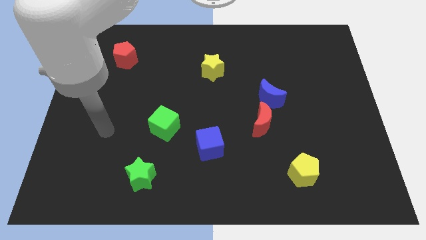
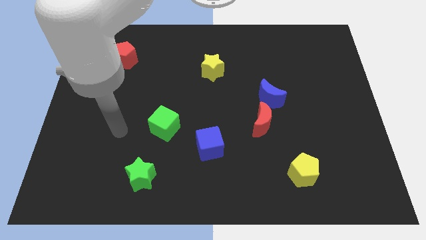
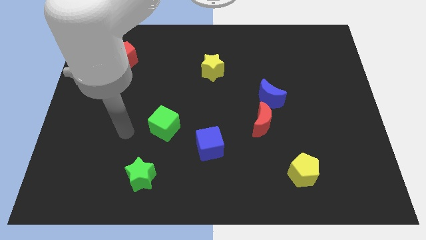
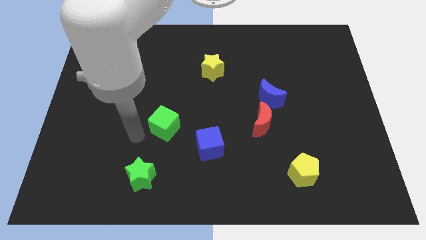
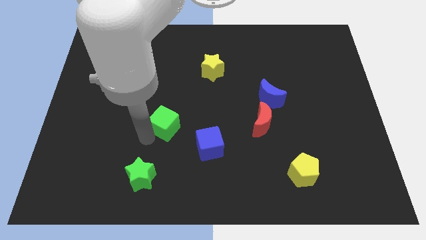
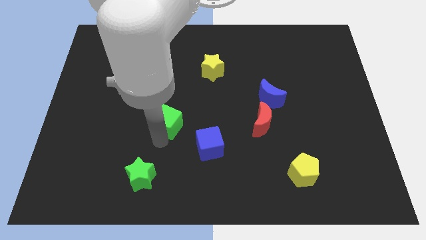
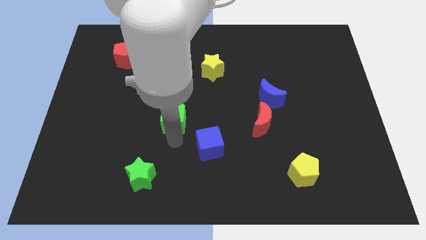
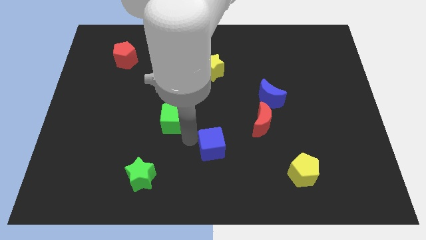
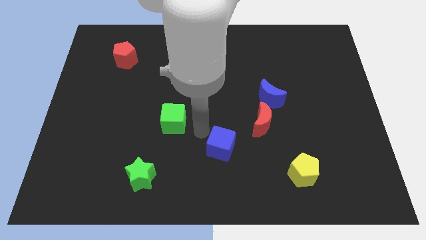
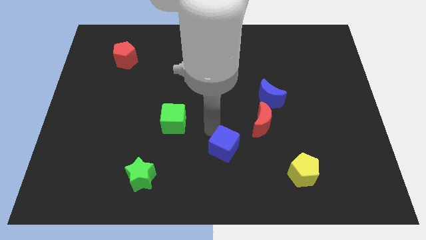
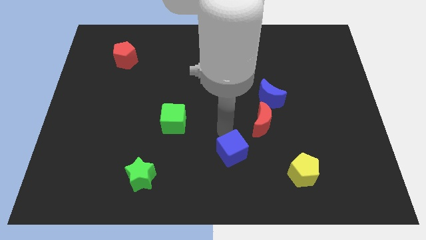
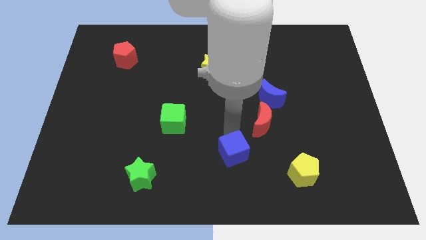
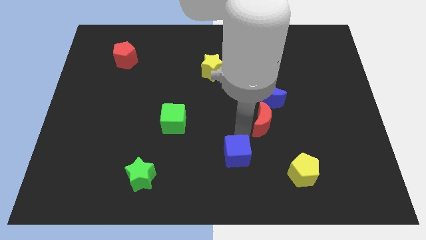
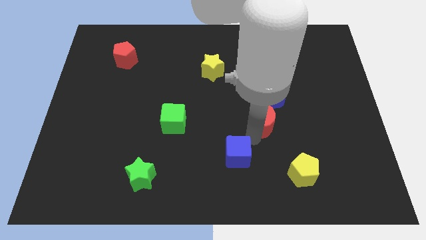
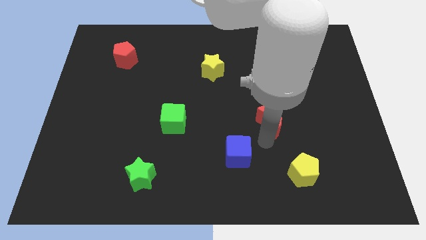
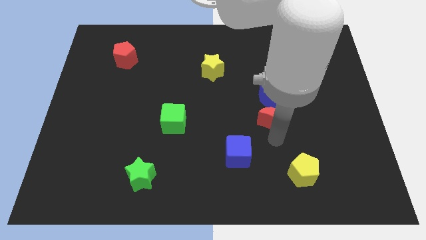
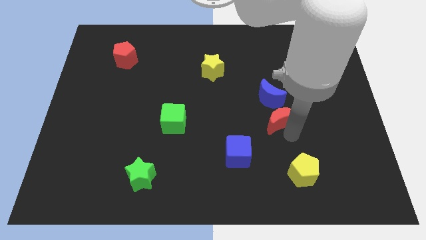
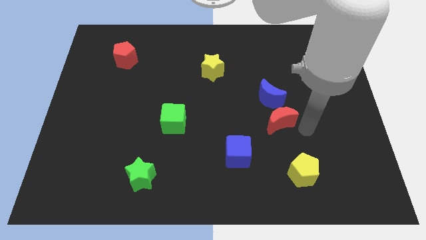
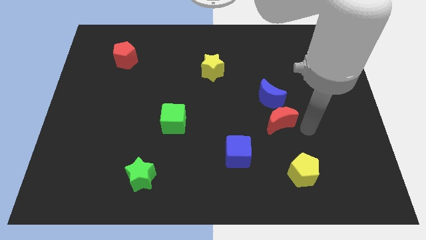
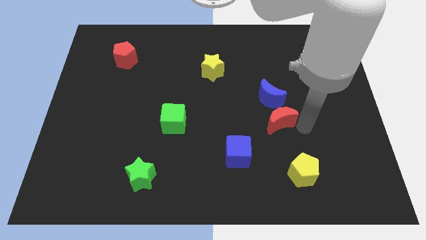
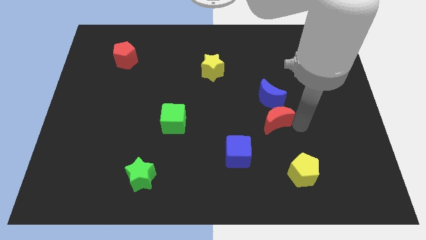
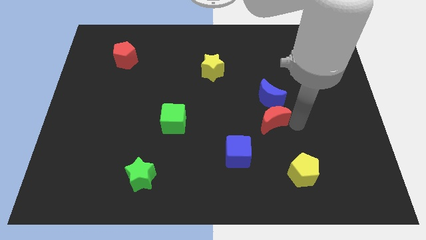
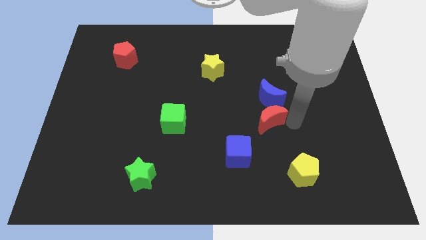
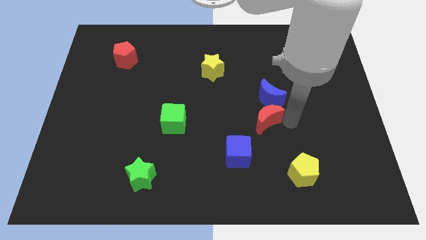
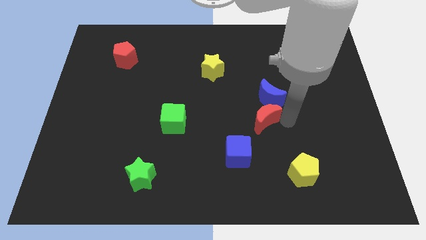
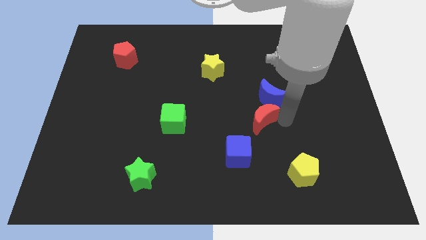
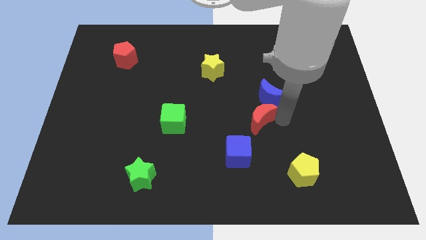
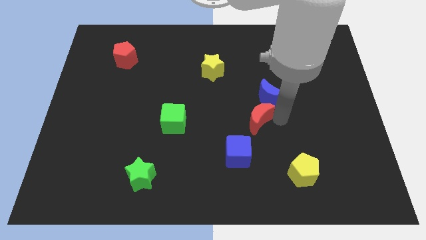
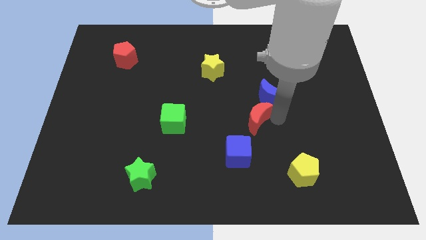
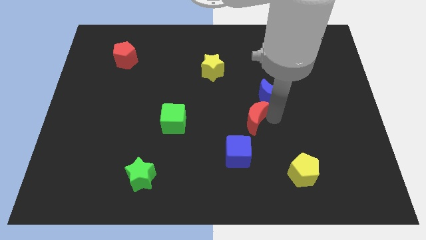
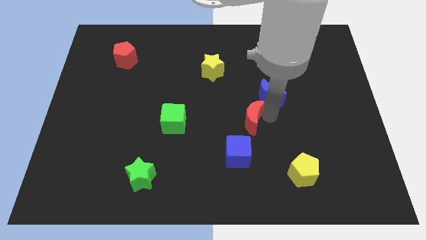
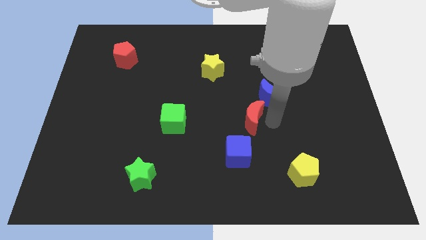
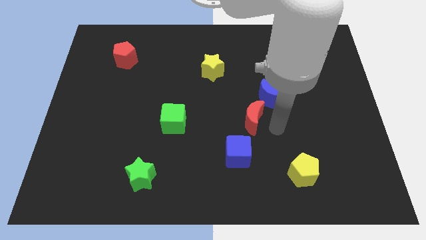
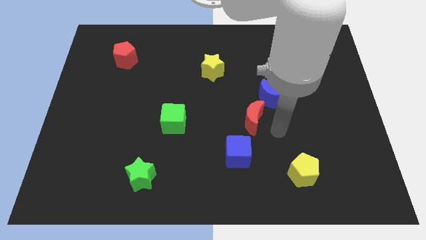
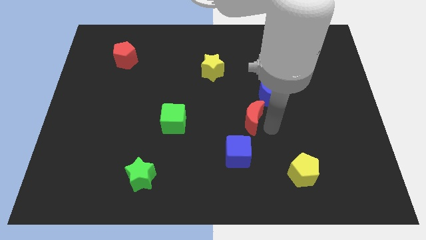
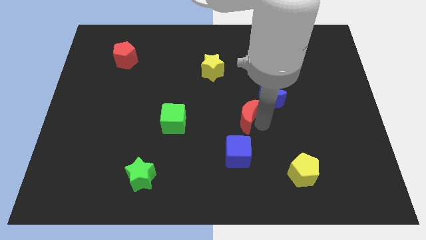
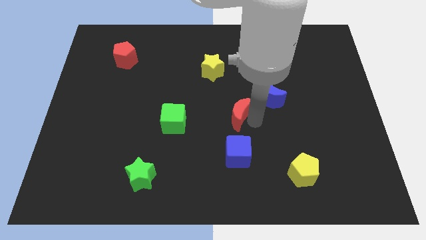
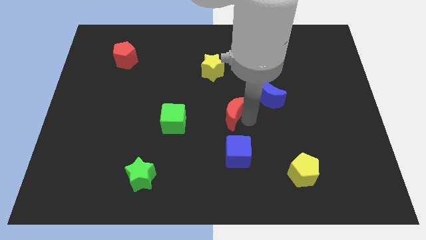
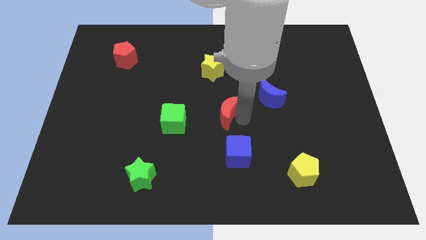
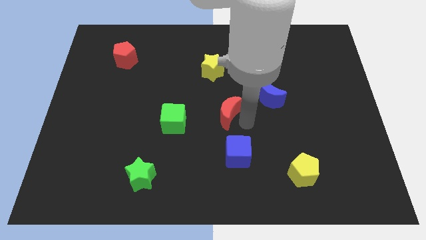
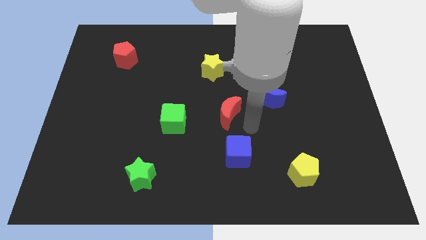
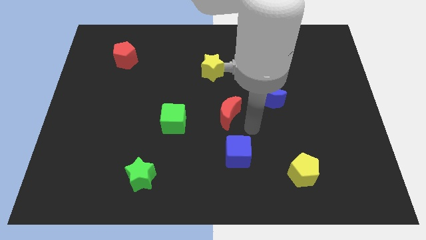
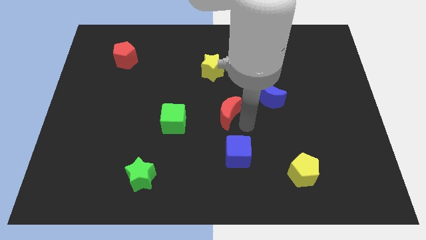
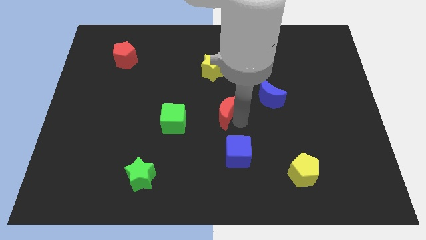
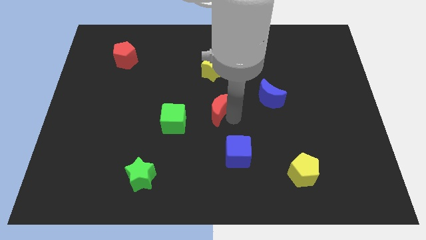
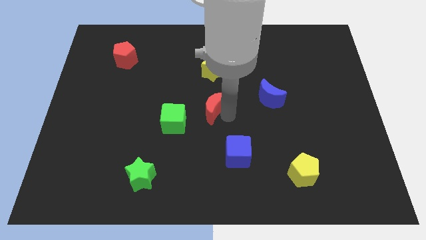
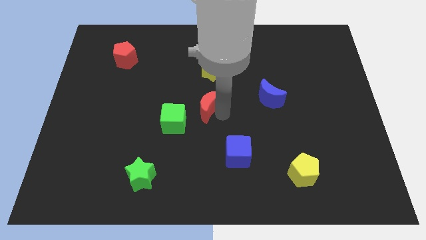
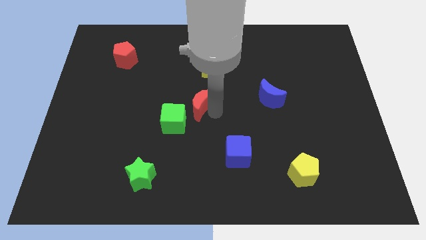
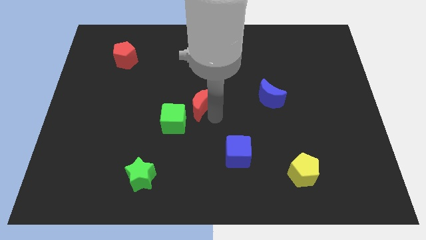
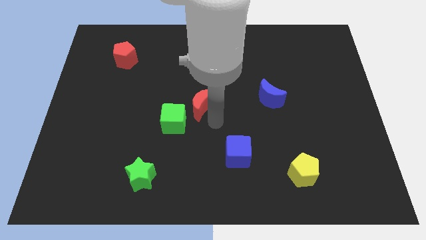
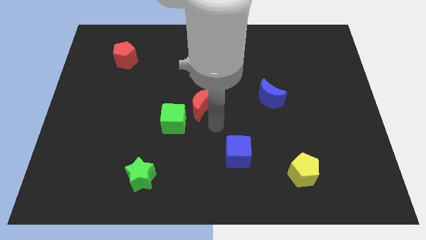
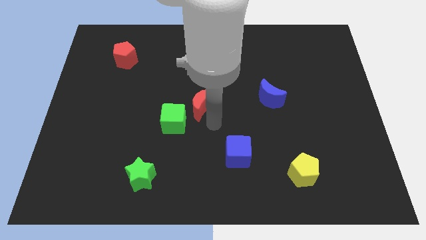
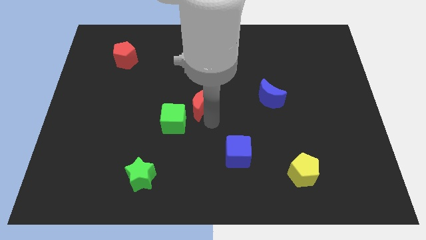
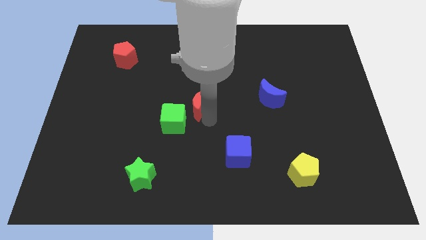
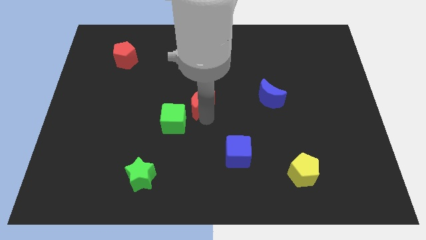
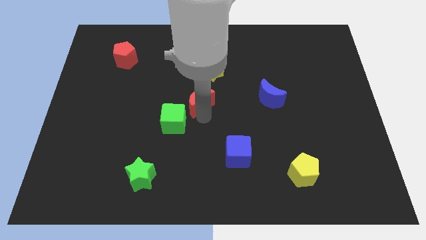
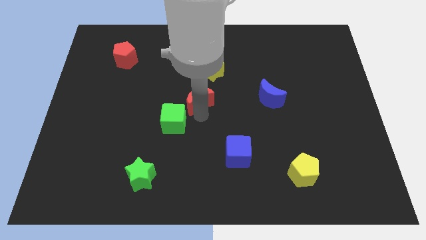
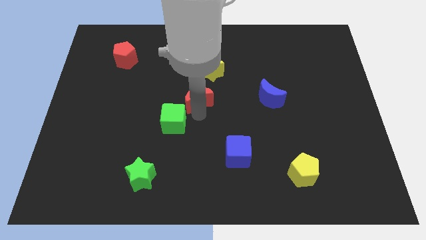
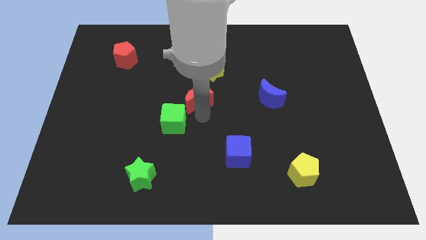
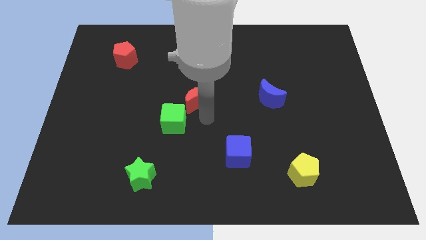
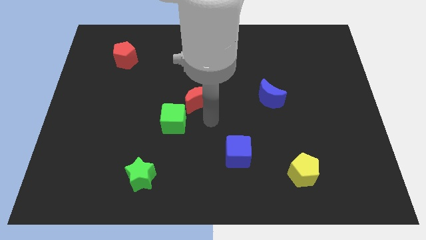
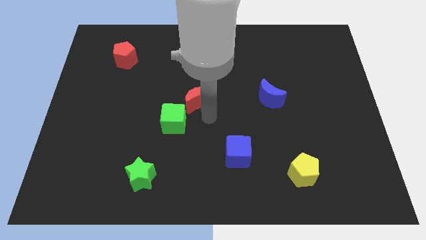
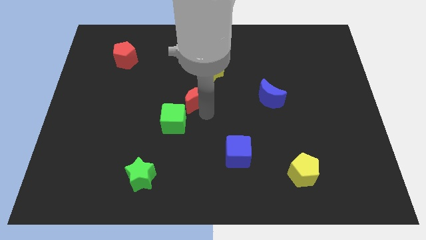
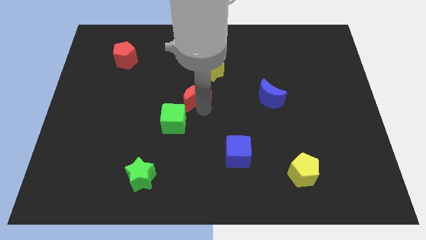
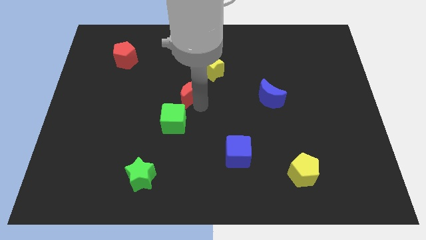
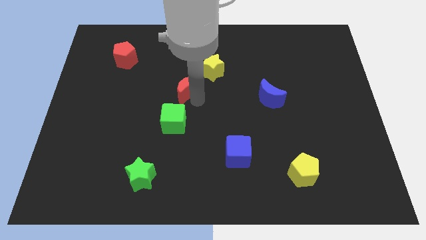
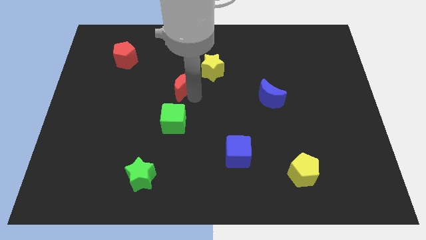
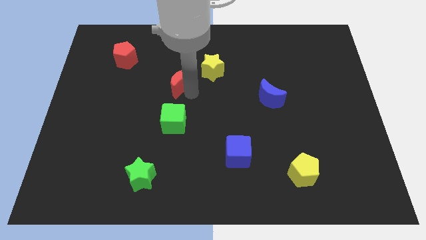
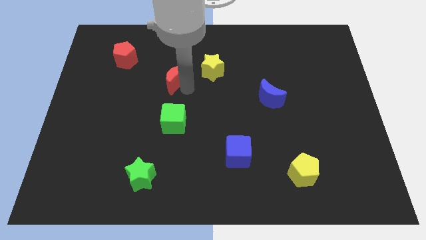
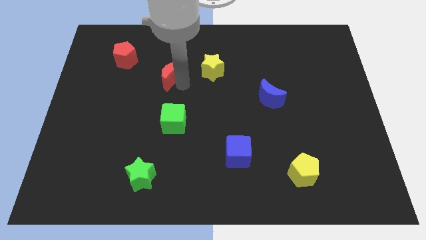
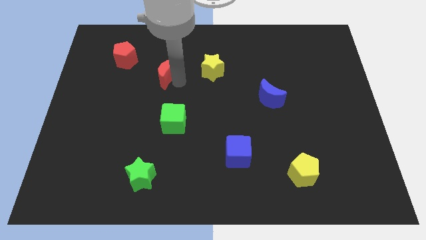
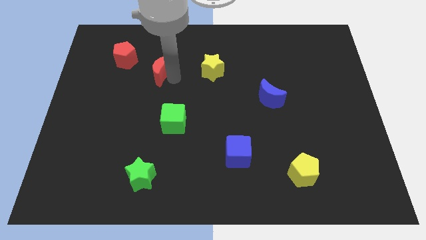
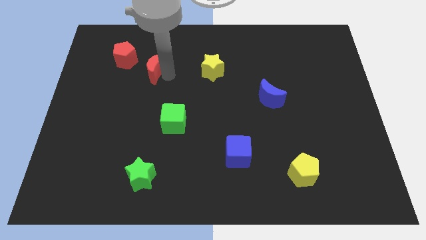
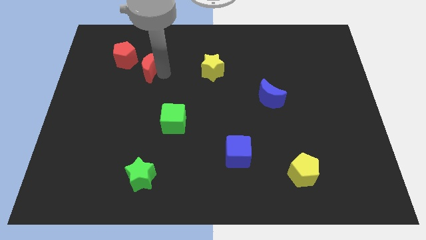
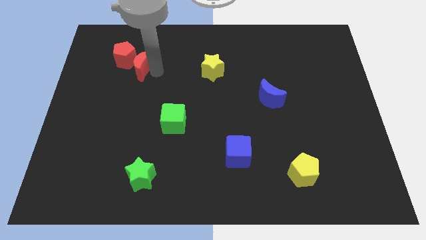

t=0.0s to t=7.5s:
move the red moon next to the red pentagon
